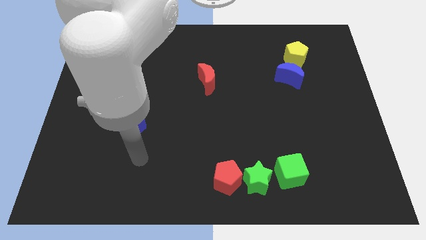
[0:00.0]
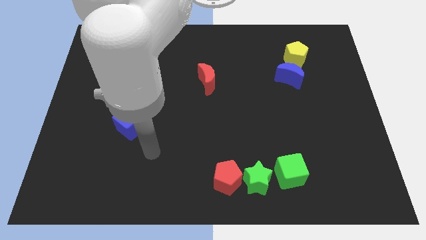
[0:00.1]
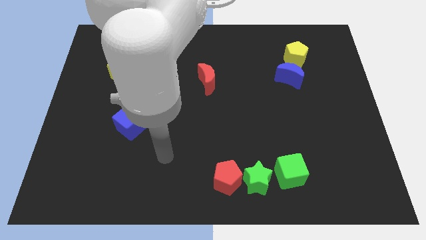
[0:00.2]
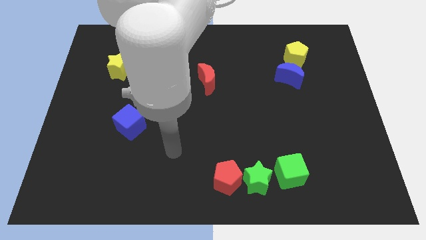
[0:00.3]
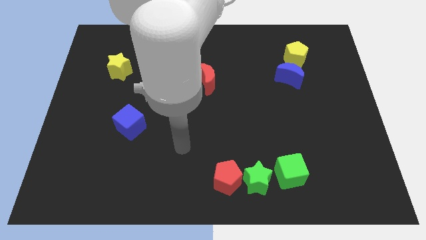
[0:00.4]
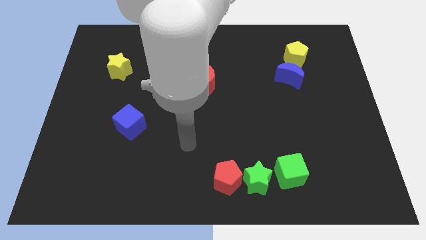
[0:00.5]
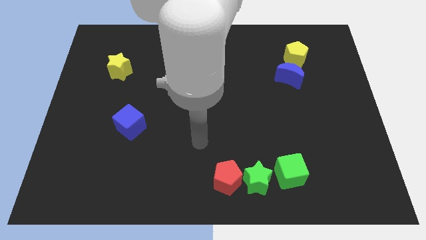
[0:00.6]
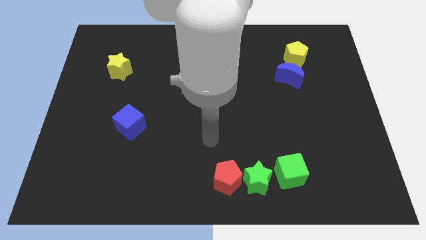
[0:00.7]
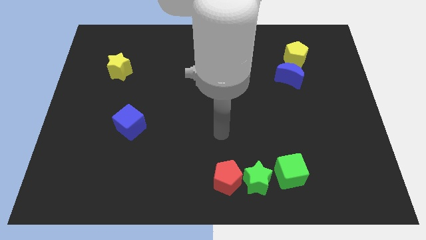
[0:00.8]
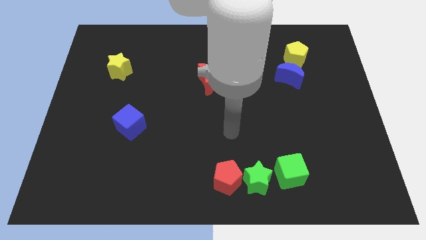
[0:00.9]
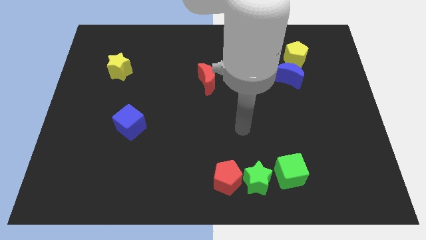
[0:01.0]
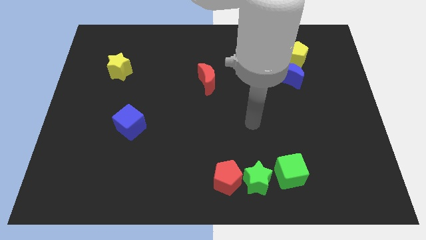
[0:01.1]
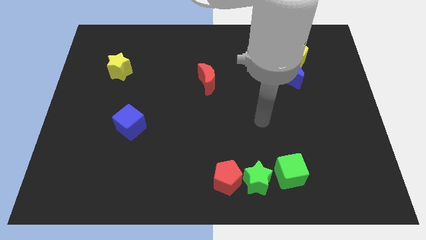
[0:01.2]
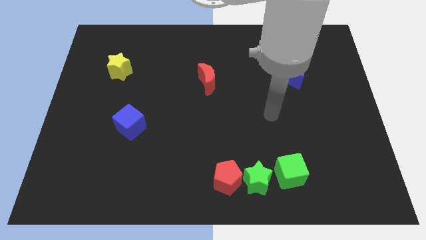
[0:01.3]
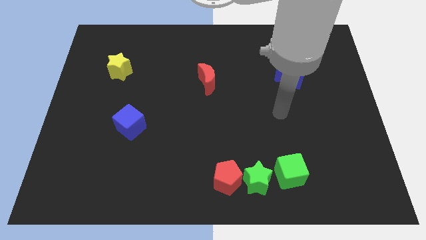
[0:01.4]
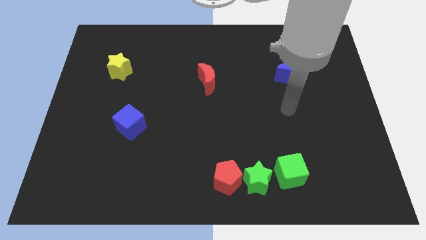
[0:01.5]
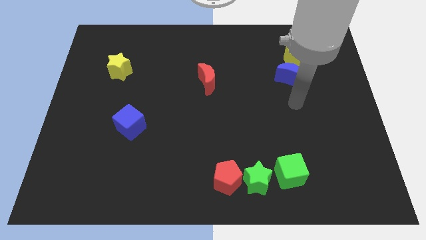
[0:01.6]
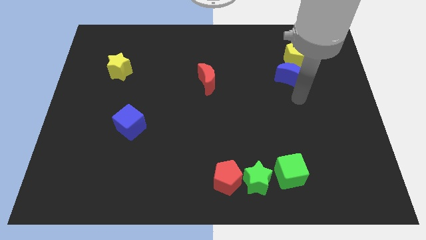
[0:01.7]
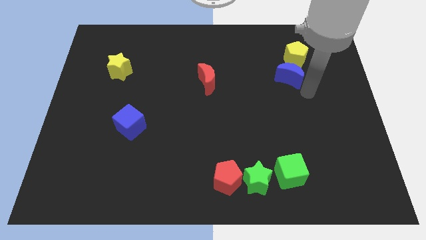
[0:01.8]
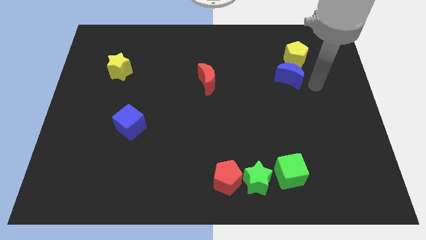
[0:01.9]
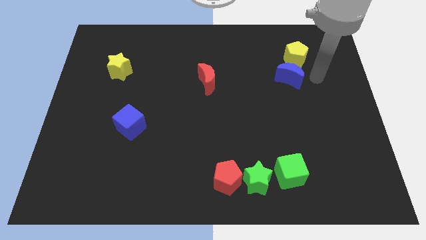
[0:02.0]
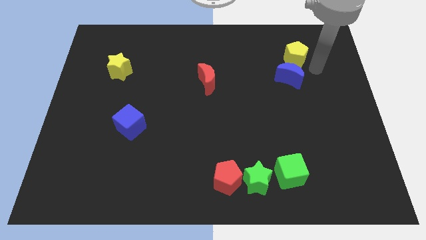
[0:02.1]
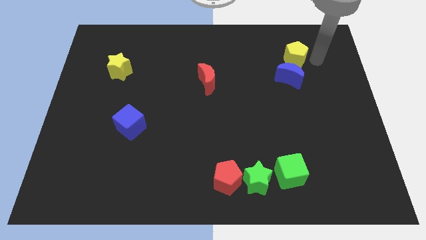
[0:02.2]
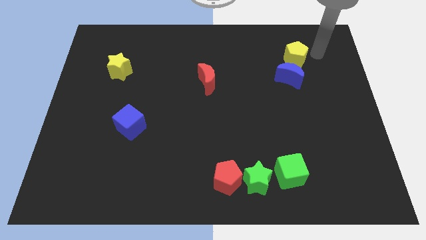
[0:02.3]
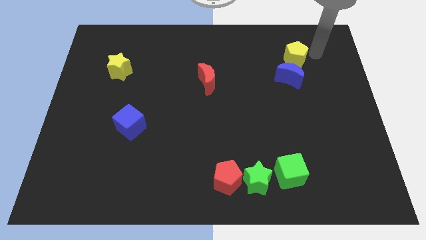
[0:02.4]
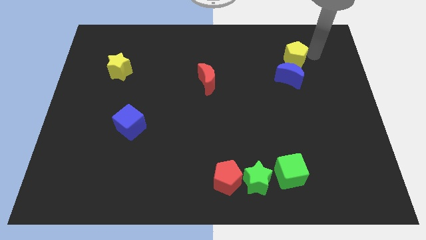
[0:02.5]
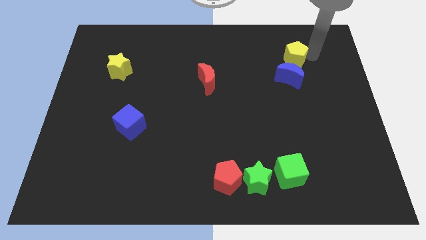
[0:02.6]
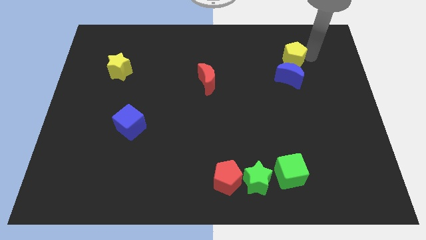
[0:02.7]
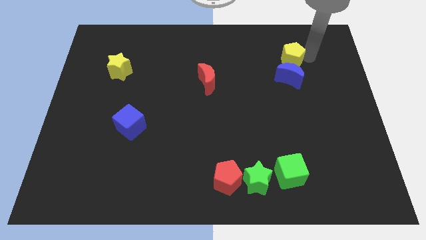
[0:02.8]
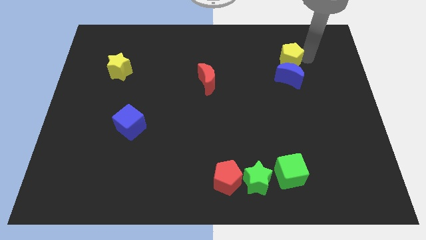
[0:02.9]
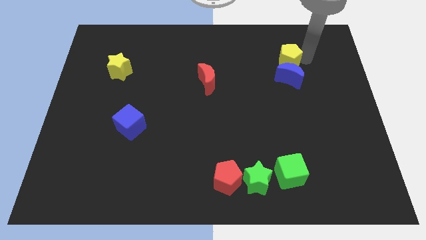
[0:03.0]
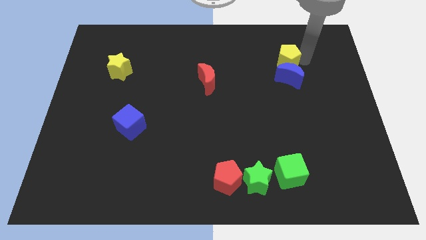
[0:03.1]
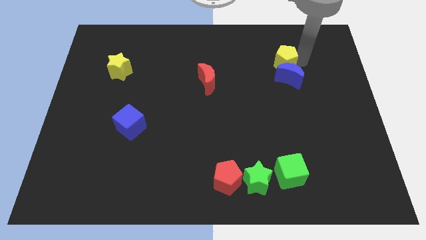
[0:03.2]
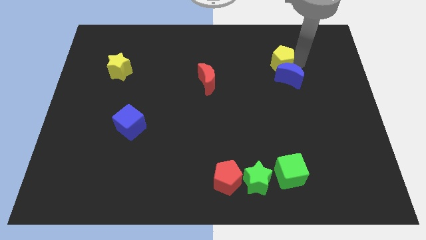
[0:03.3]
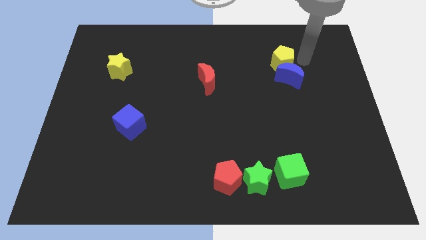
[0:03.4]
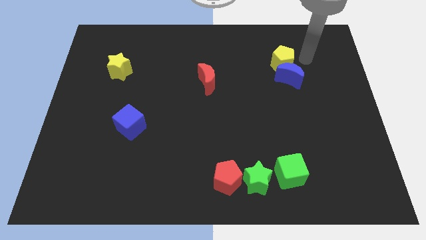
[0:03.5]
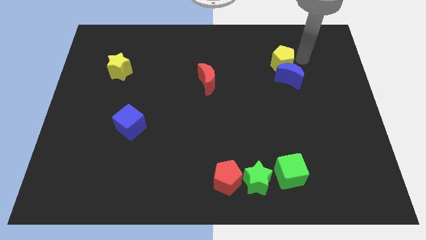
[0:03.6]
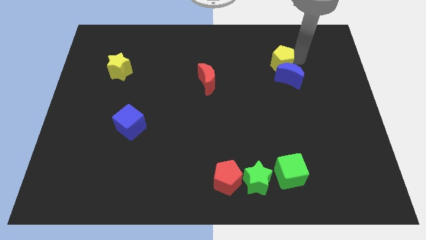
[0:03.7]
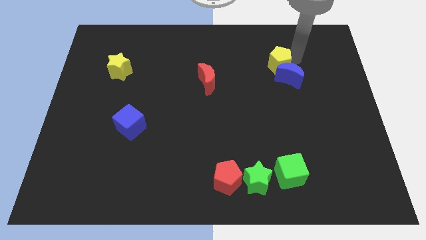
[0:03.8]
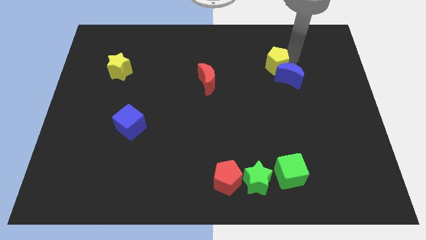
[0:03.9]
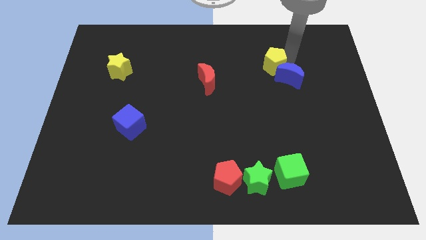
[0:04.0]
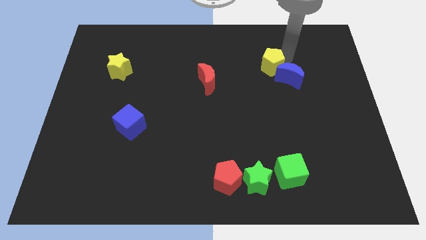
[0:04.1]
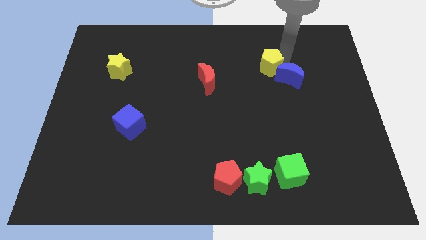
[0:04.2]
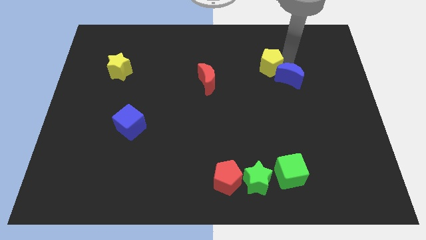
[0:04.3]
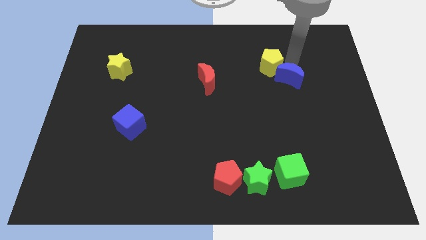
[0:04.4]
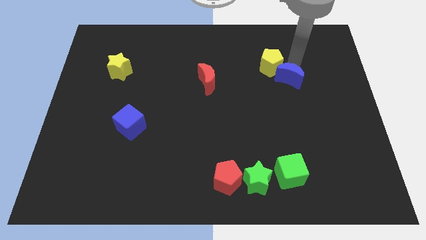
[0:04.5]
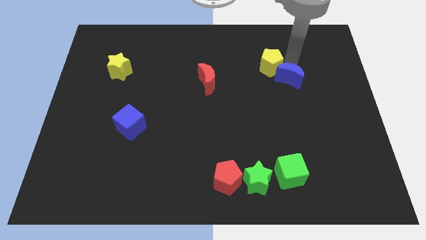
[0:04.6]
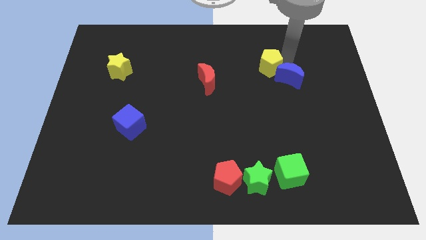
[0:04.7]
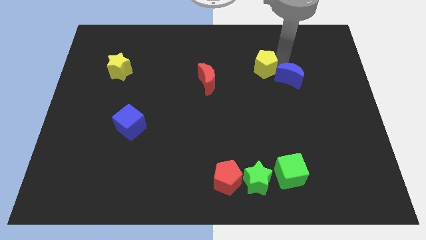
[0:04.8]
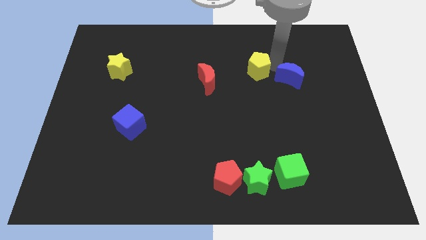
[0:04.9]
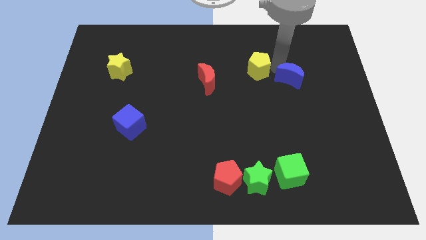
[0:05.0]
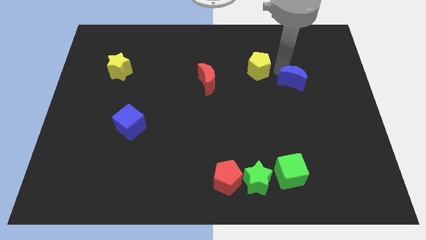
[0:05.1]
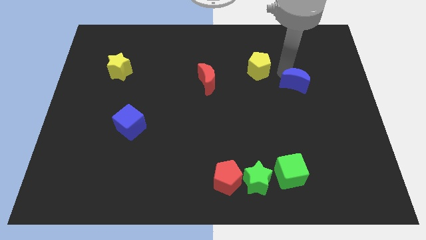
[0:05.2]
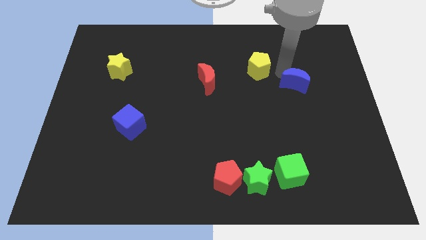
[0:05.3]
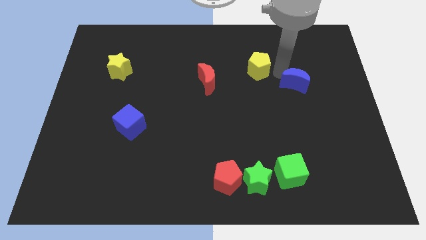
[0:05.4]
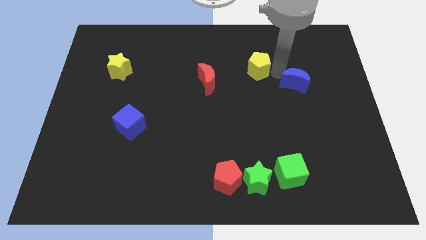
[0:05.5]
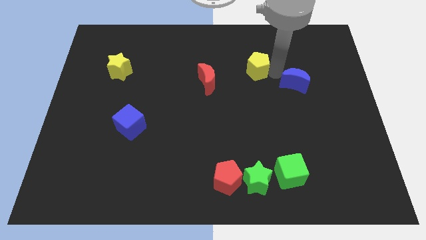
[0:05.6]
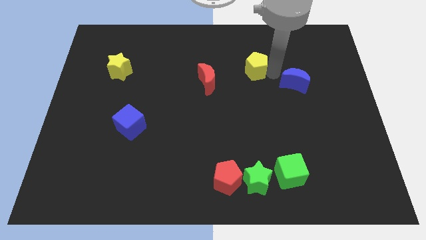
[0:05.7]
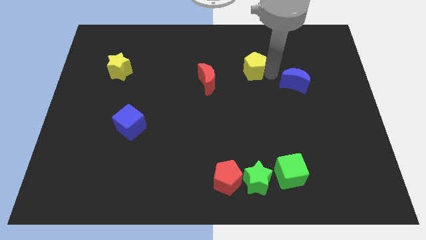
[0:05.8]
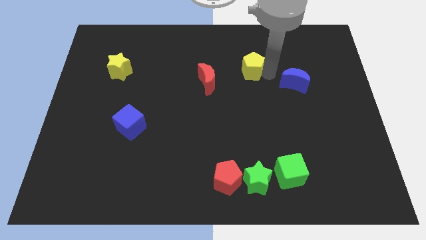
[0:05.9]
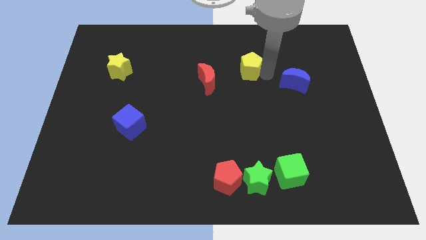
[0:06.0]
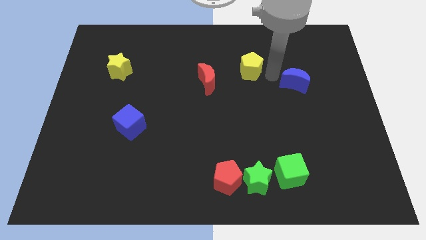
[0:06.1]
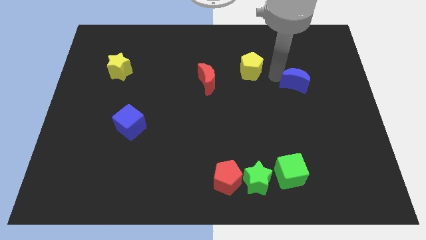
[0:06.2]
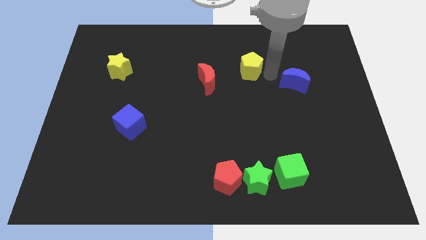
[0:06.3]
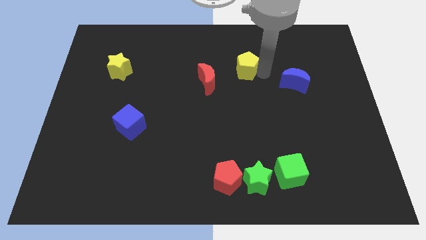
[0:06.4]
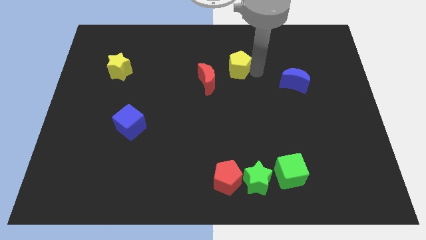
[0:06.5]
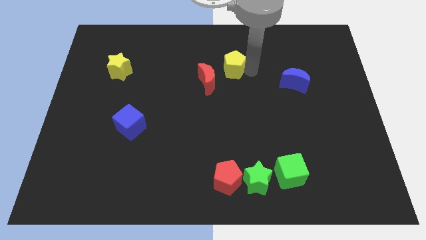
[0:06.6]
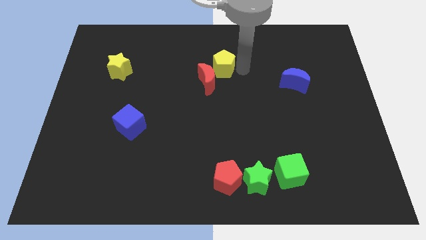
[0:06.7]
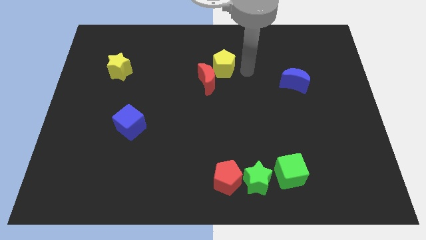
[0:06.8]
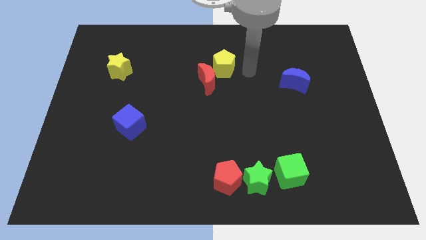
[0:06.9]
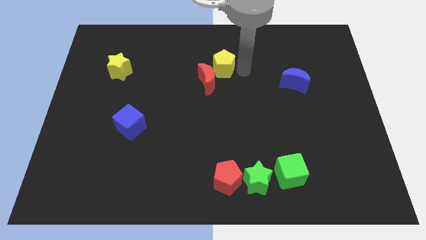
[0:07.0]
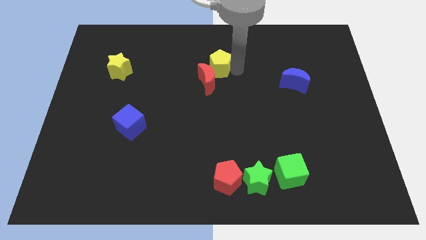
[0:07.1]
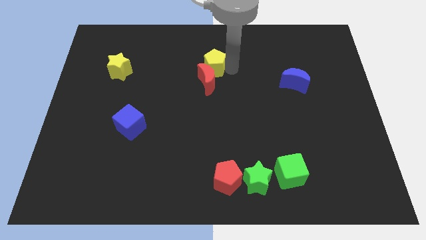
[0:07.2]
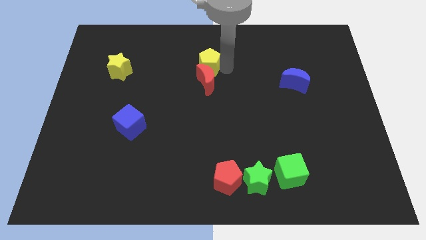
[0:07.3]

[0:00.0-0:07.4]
put the yellow pentagon to the top left side of the red moon

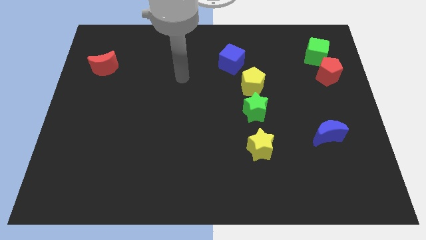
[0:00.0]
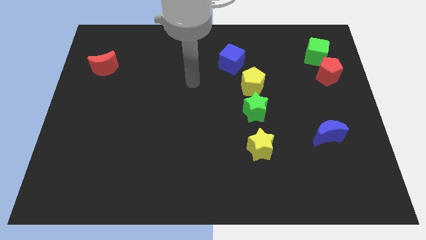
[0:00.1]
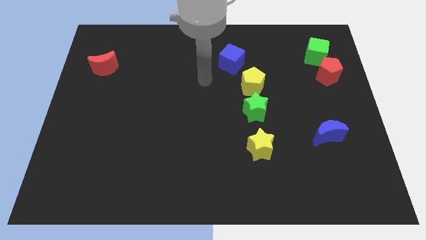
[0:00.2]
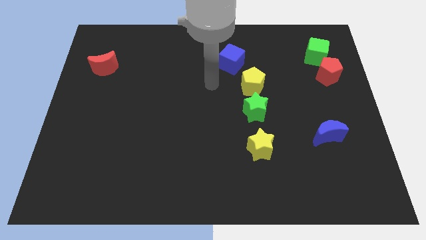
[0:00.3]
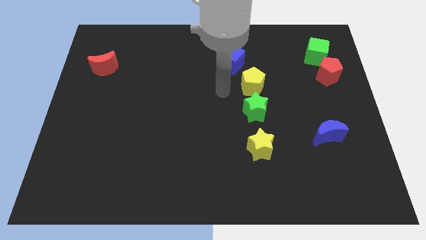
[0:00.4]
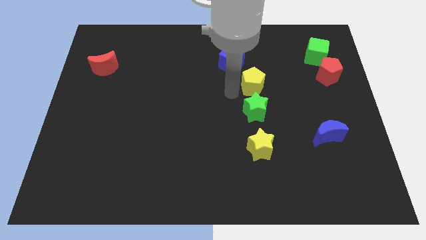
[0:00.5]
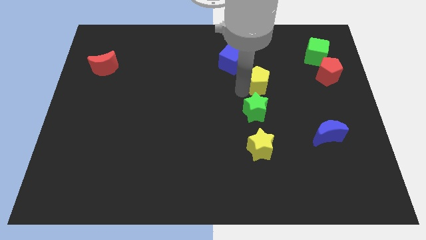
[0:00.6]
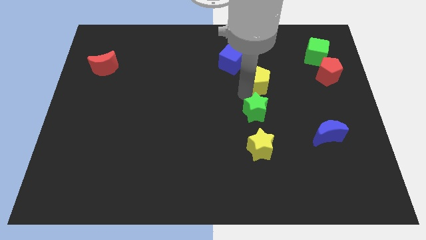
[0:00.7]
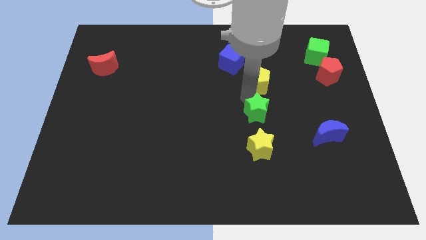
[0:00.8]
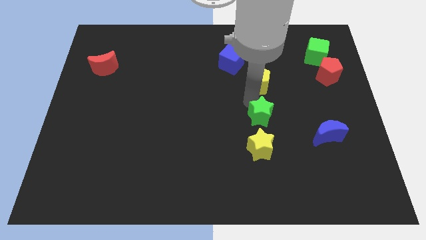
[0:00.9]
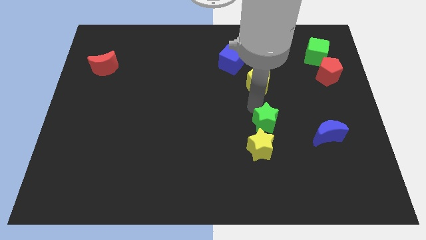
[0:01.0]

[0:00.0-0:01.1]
put the green star left of the blue moon
